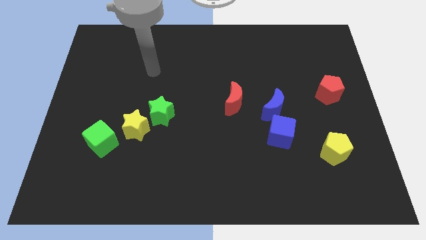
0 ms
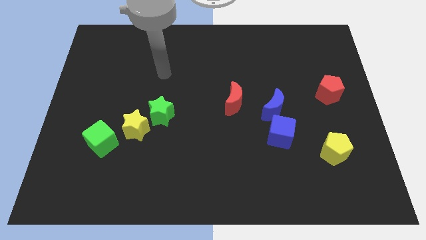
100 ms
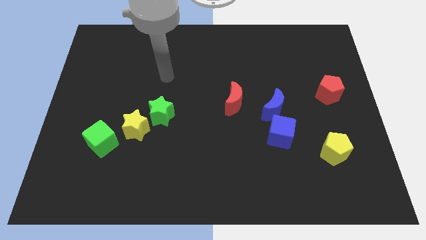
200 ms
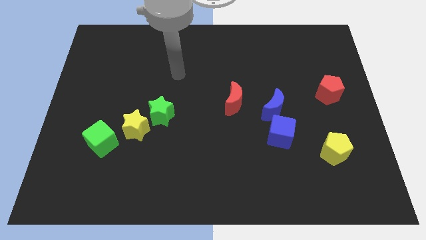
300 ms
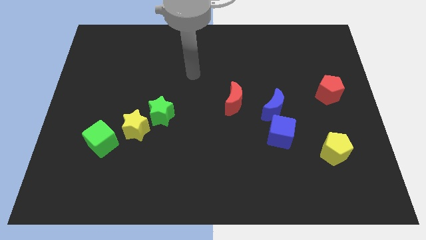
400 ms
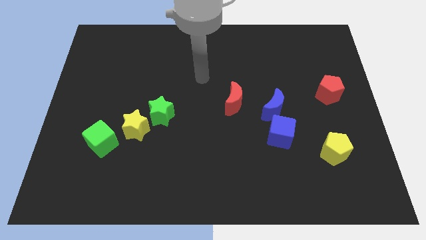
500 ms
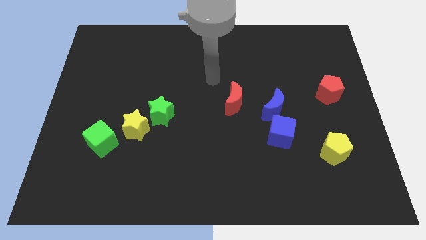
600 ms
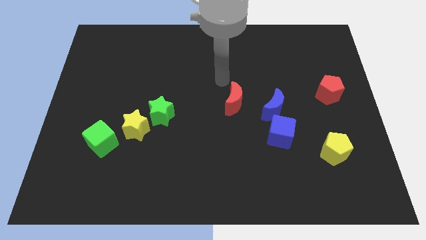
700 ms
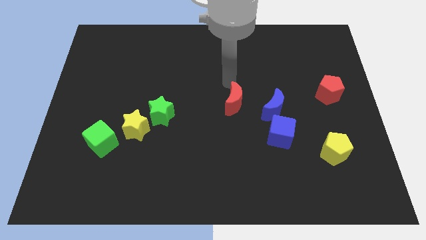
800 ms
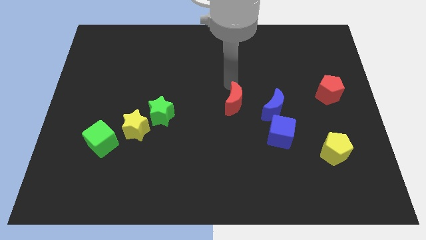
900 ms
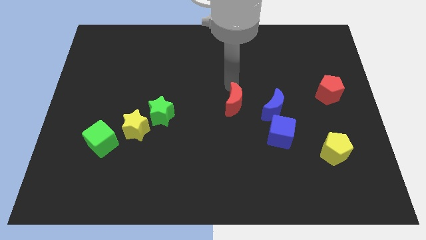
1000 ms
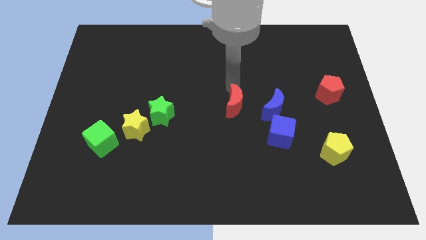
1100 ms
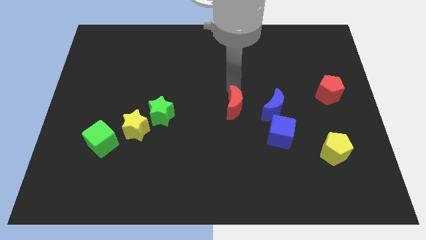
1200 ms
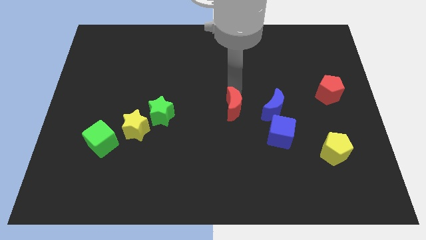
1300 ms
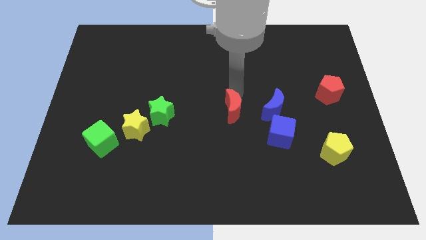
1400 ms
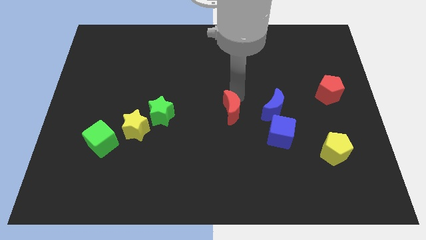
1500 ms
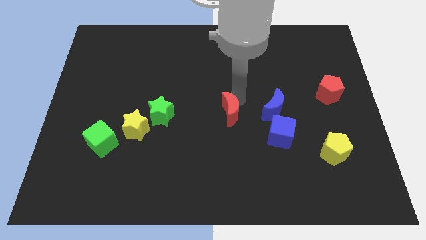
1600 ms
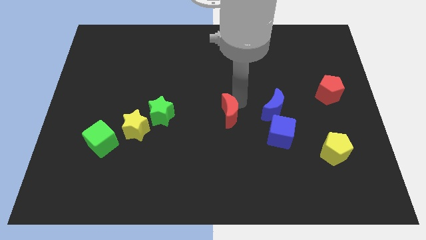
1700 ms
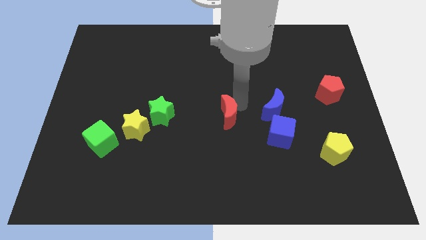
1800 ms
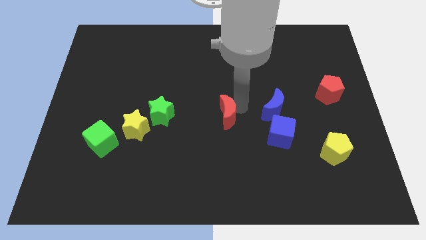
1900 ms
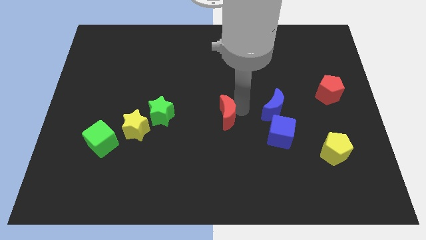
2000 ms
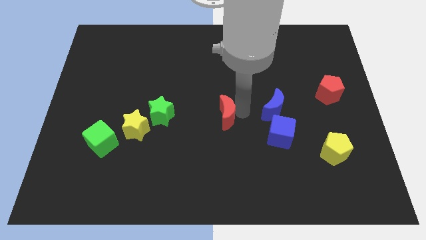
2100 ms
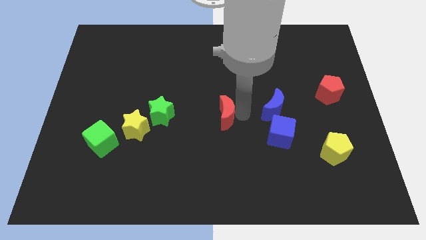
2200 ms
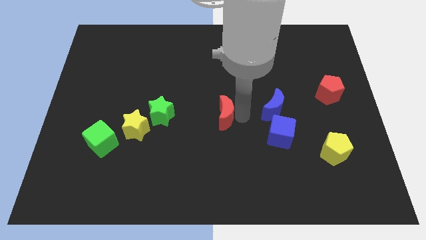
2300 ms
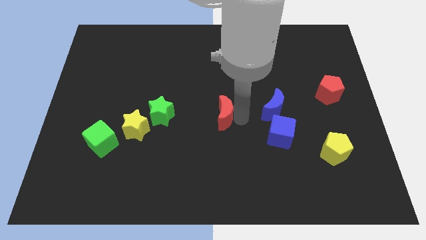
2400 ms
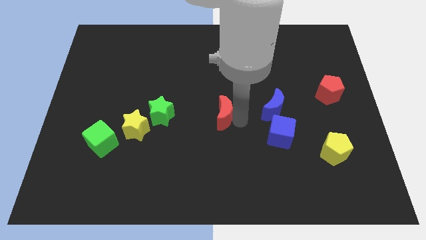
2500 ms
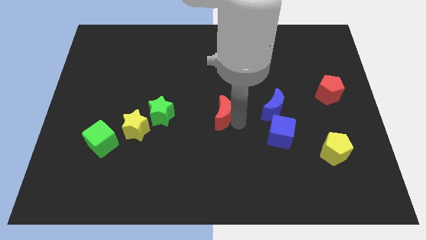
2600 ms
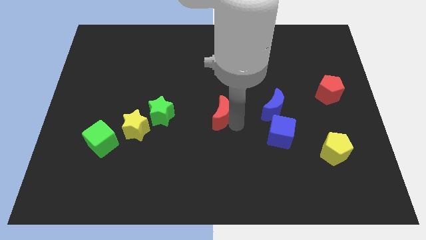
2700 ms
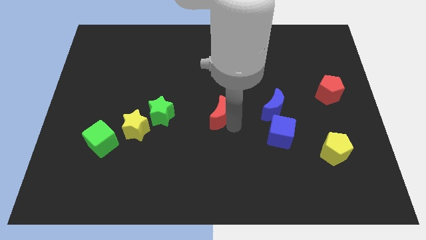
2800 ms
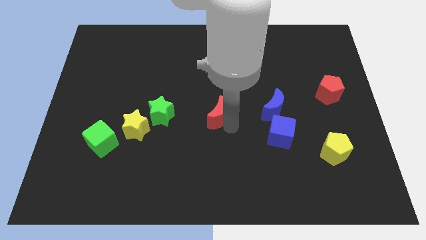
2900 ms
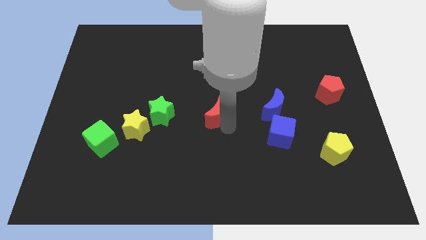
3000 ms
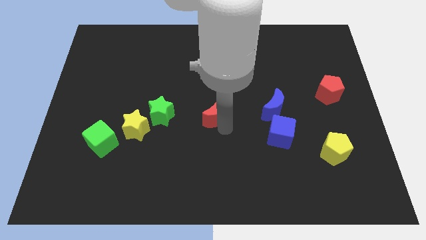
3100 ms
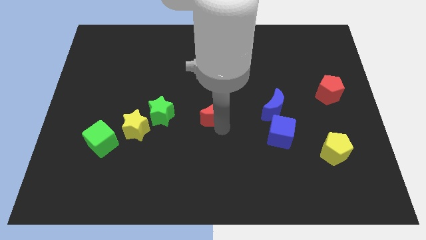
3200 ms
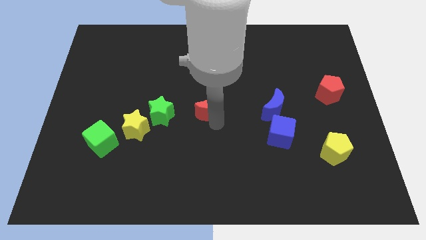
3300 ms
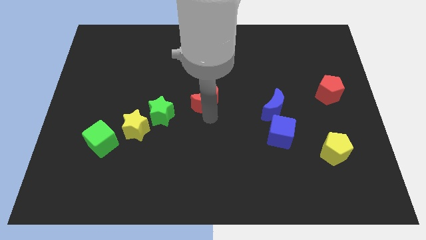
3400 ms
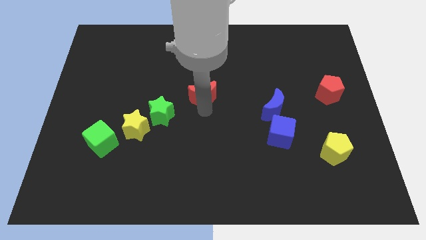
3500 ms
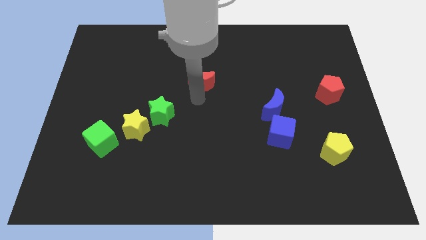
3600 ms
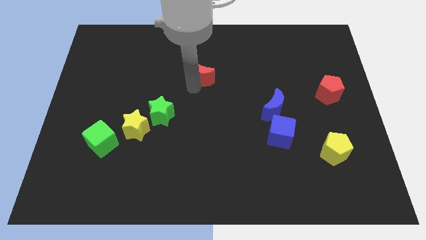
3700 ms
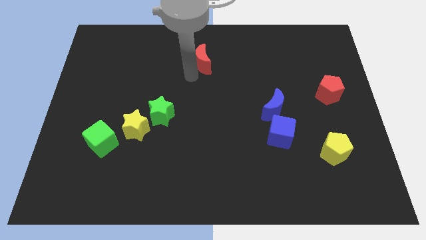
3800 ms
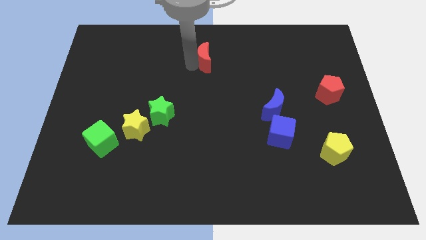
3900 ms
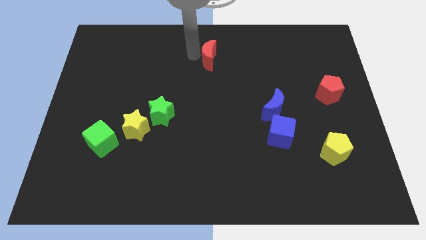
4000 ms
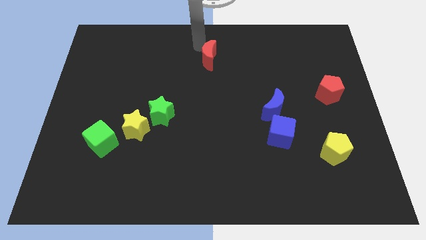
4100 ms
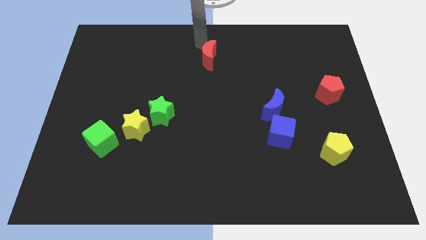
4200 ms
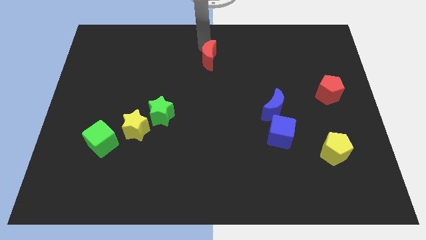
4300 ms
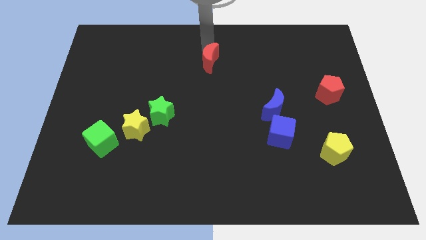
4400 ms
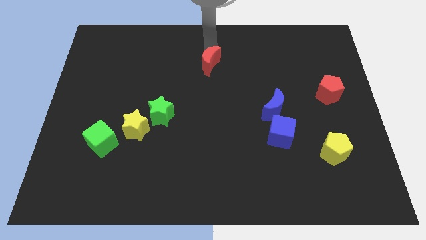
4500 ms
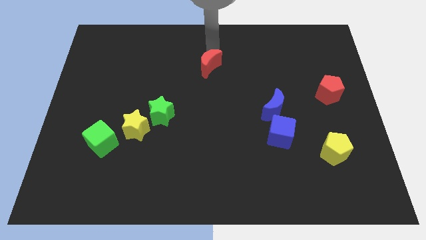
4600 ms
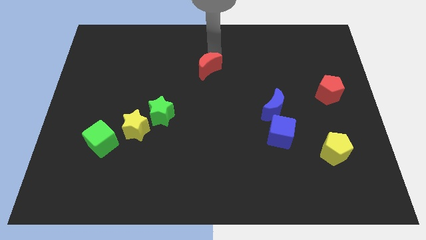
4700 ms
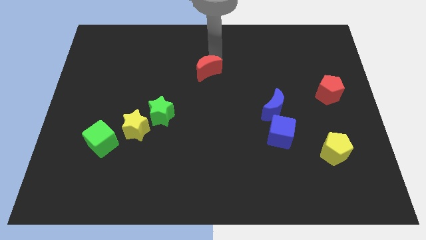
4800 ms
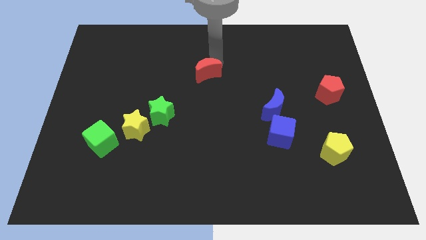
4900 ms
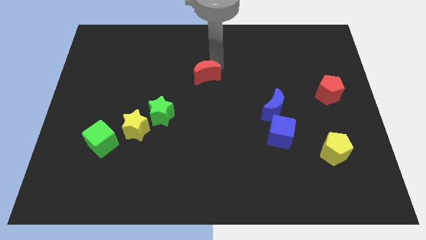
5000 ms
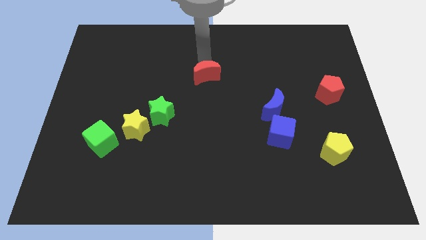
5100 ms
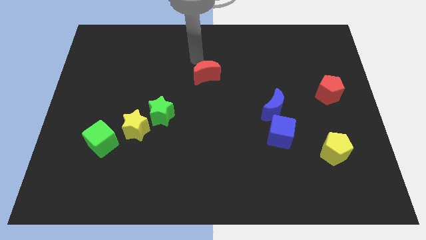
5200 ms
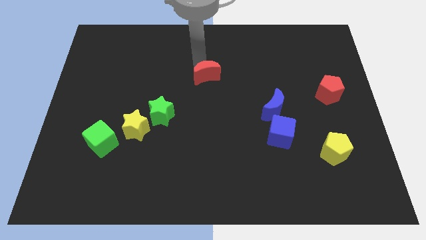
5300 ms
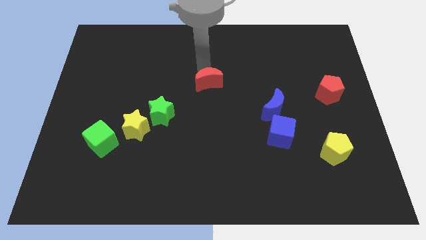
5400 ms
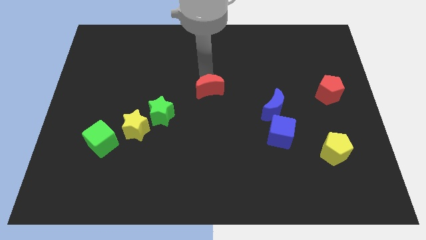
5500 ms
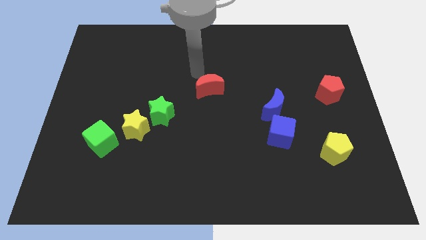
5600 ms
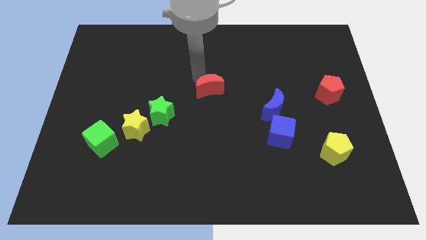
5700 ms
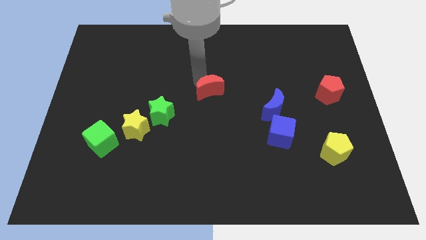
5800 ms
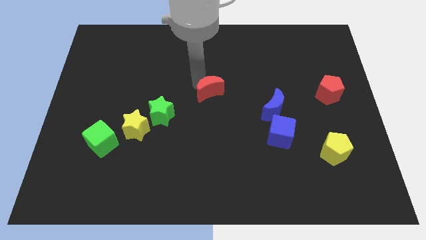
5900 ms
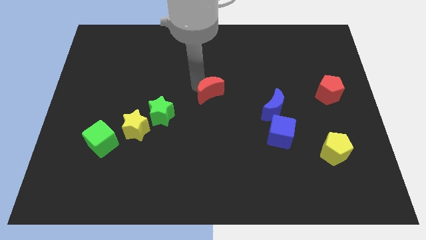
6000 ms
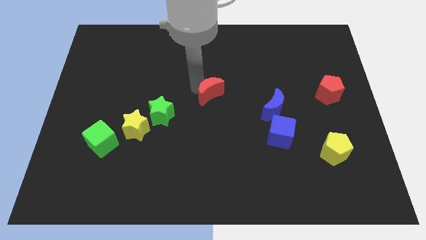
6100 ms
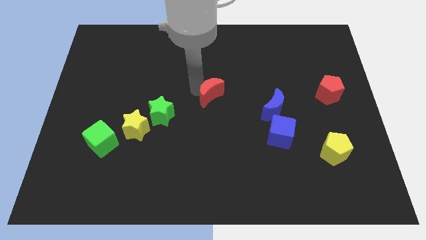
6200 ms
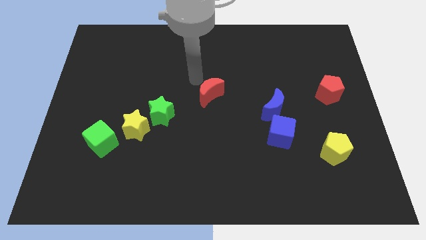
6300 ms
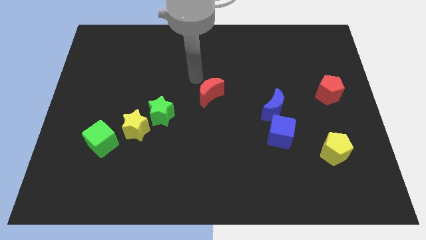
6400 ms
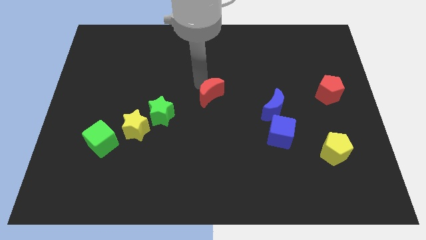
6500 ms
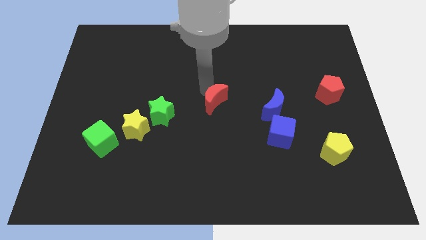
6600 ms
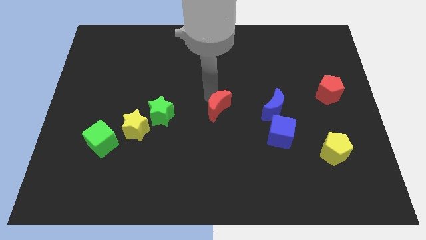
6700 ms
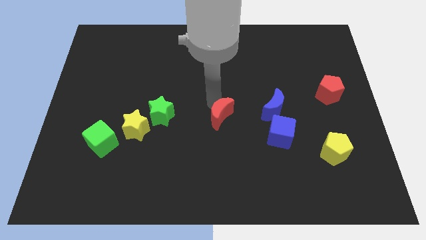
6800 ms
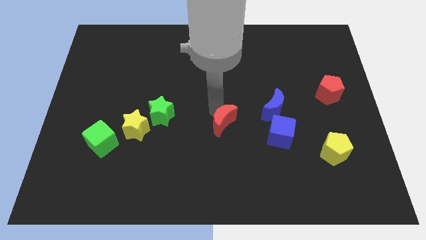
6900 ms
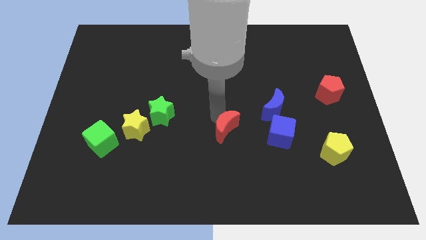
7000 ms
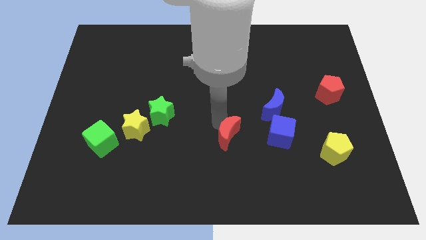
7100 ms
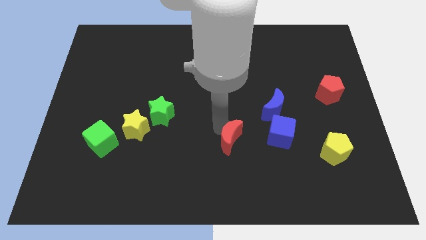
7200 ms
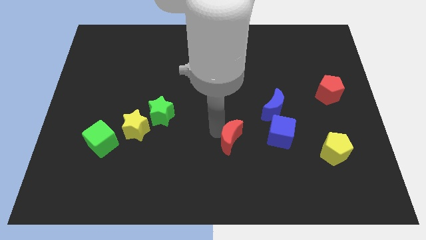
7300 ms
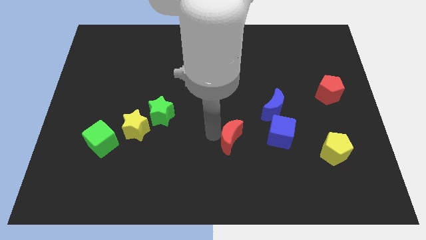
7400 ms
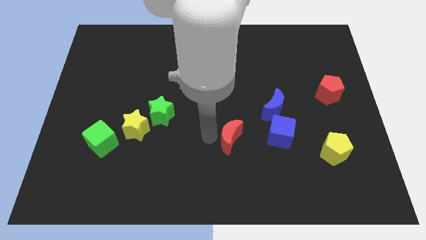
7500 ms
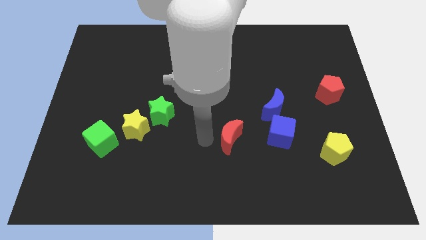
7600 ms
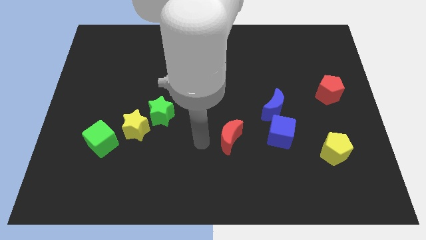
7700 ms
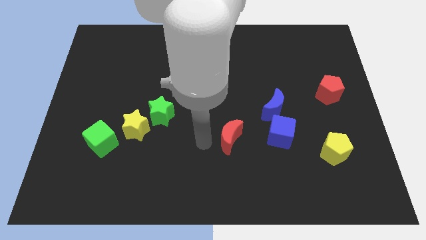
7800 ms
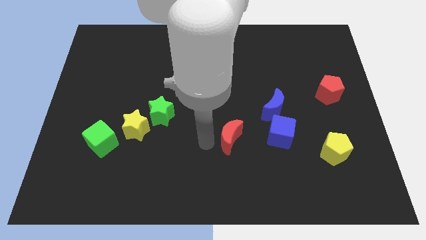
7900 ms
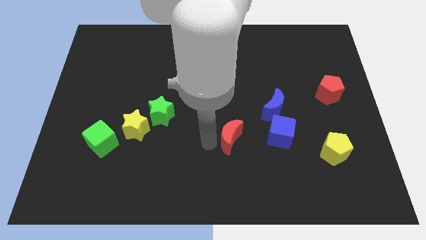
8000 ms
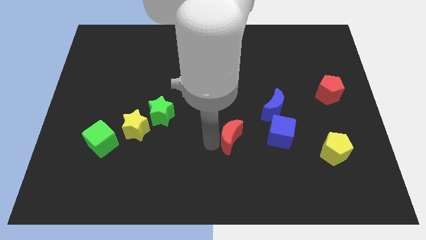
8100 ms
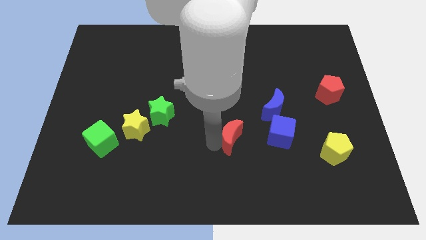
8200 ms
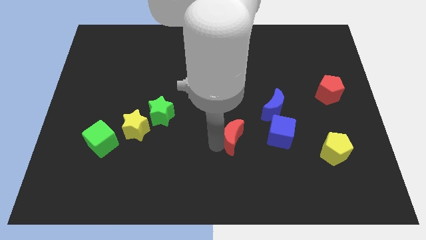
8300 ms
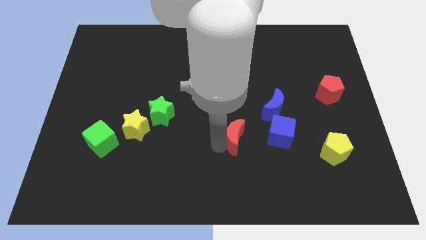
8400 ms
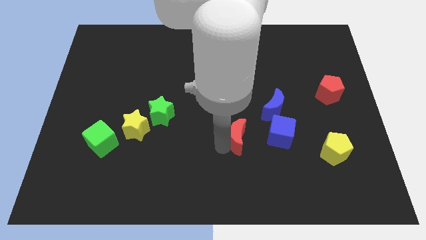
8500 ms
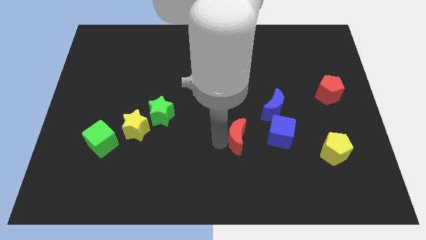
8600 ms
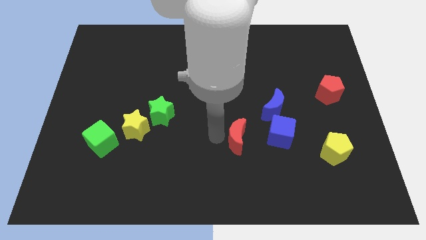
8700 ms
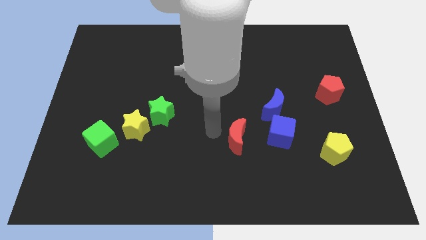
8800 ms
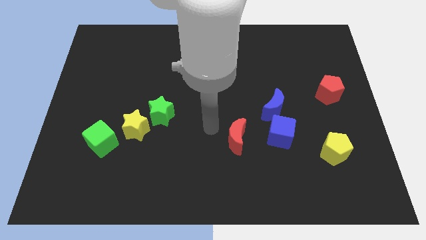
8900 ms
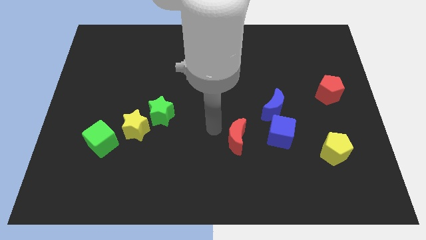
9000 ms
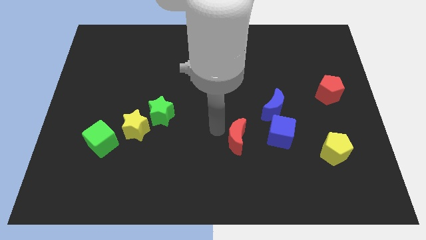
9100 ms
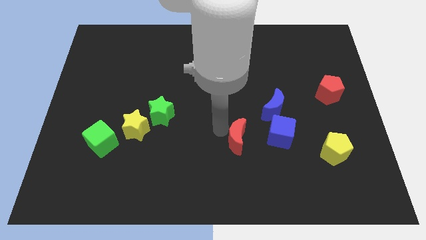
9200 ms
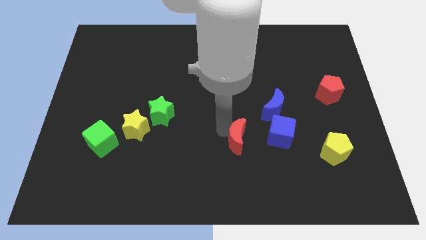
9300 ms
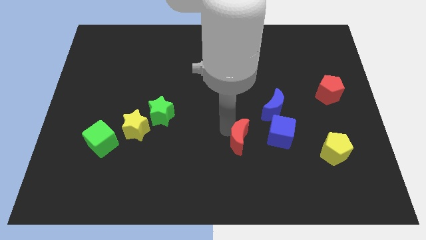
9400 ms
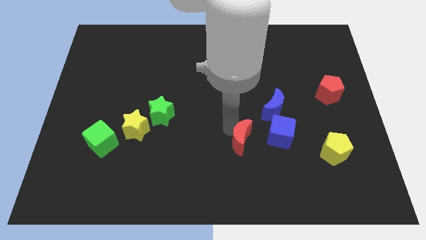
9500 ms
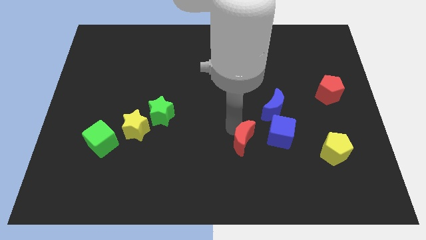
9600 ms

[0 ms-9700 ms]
slide the red moon diagonally downwards and right a bit
